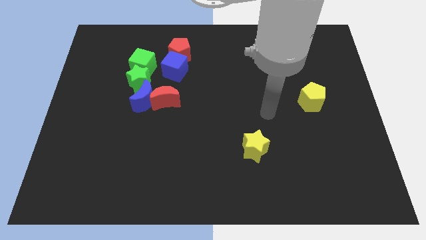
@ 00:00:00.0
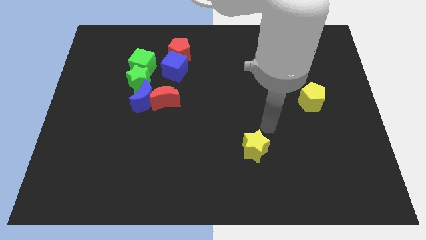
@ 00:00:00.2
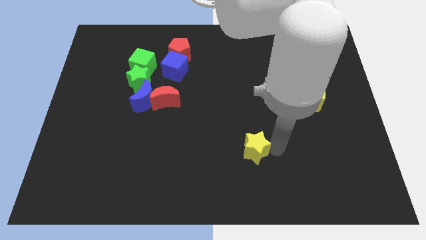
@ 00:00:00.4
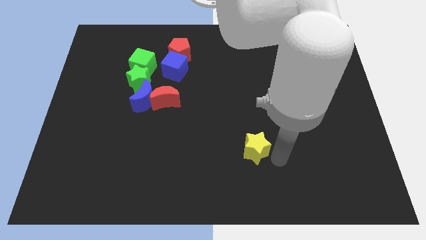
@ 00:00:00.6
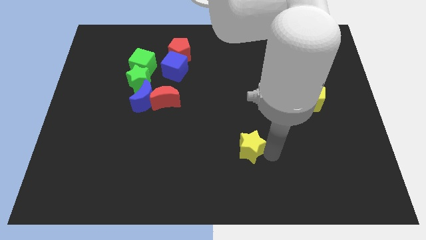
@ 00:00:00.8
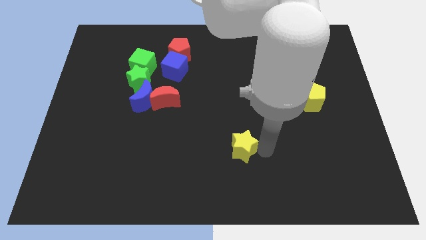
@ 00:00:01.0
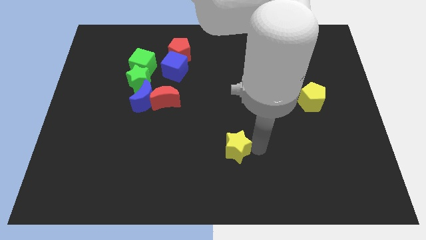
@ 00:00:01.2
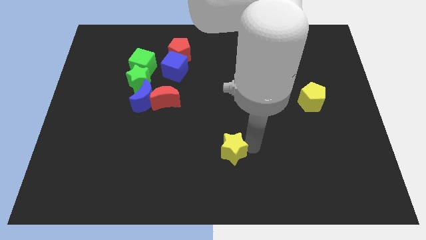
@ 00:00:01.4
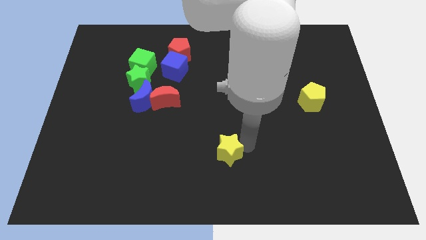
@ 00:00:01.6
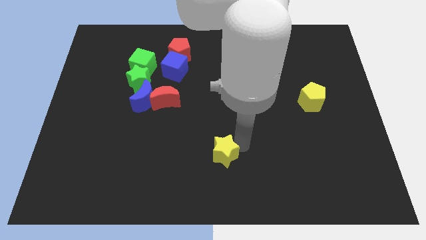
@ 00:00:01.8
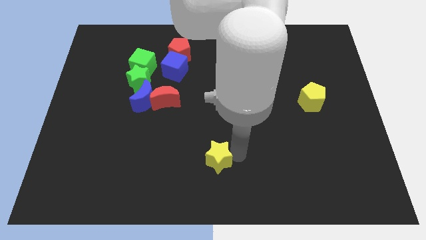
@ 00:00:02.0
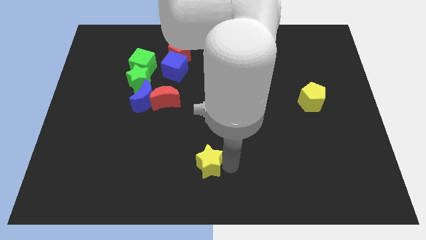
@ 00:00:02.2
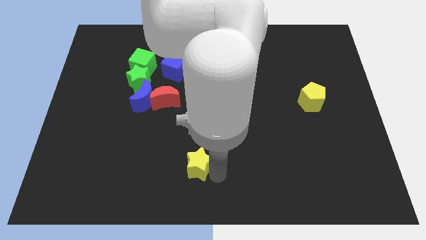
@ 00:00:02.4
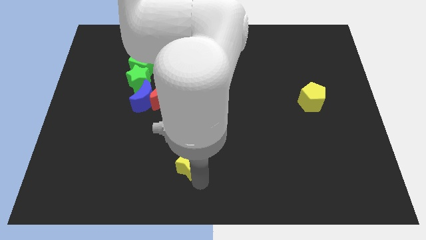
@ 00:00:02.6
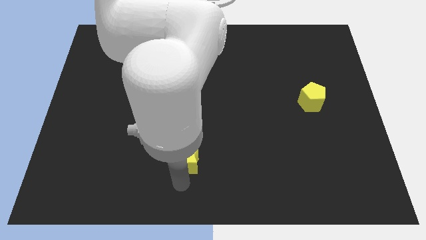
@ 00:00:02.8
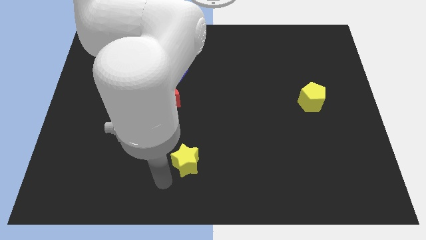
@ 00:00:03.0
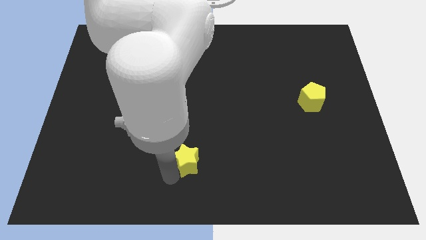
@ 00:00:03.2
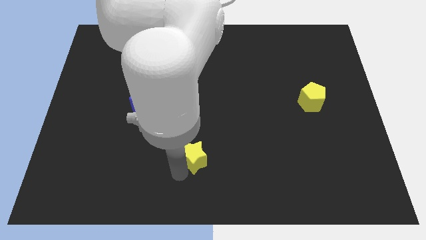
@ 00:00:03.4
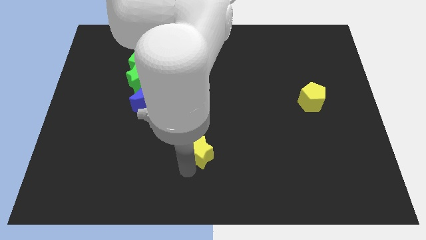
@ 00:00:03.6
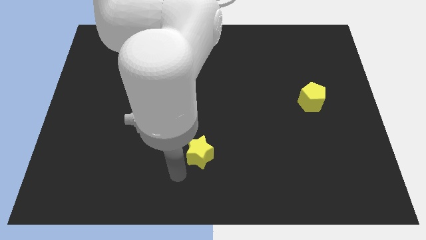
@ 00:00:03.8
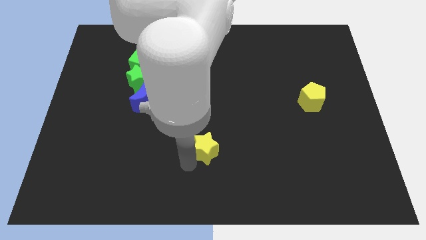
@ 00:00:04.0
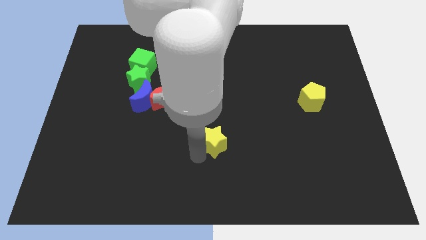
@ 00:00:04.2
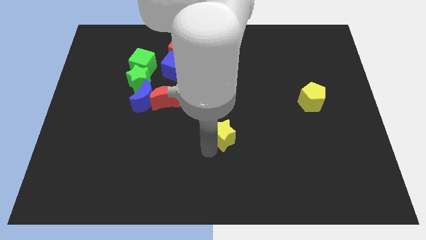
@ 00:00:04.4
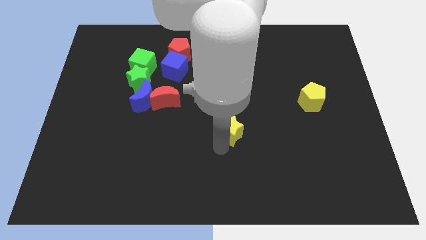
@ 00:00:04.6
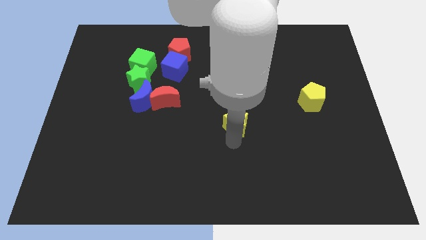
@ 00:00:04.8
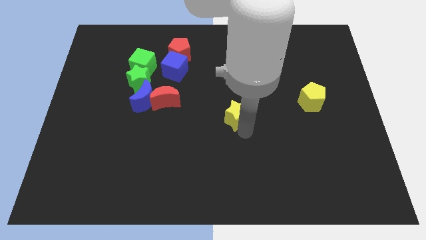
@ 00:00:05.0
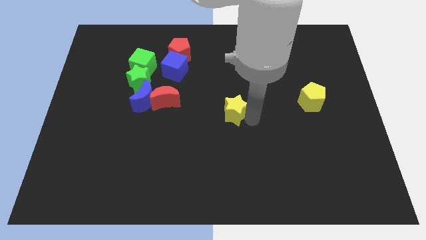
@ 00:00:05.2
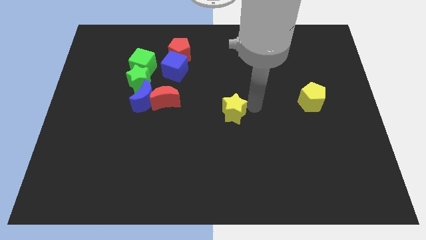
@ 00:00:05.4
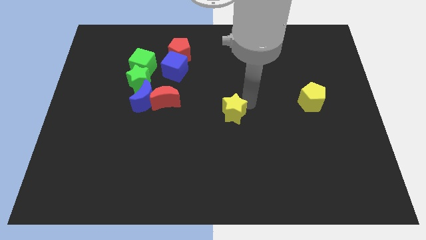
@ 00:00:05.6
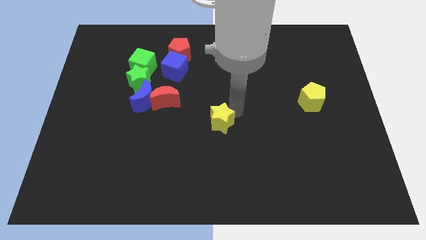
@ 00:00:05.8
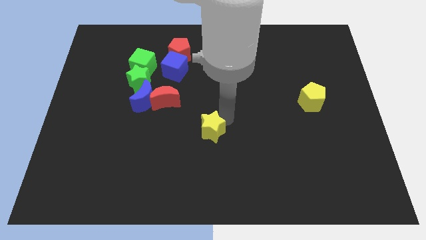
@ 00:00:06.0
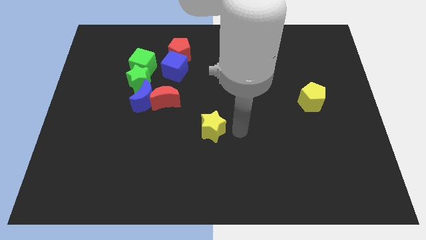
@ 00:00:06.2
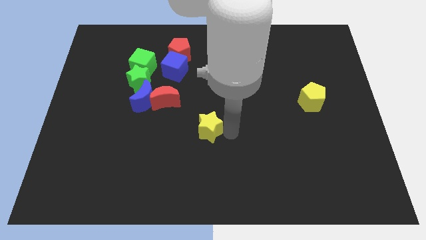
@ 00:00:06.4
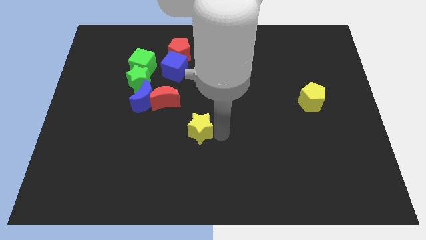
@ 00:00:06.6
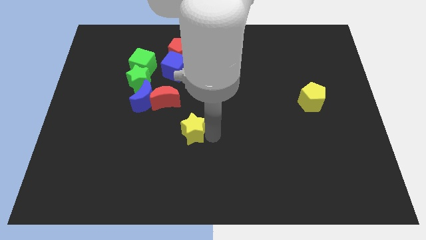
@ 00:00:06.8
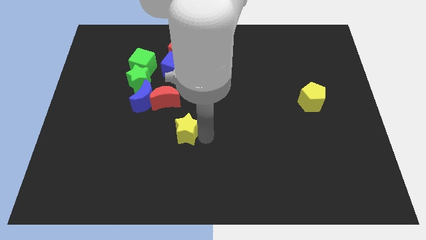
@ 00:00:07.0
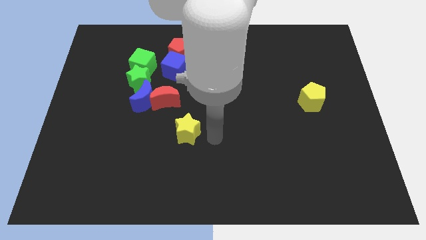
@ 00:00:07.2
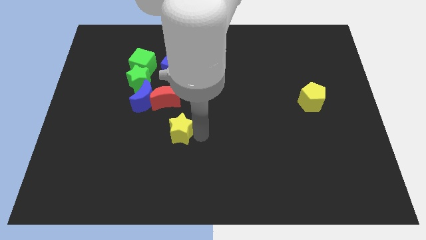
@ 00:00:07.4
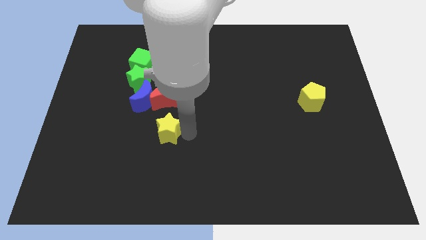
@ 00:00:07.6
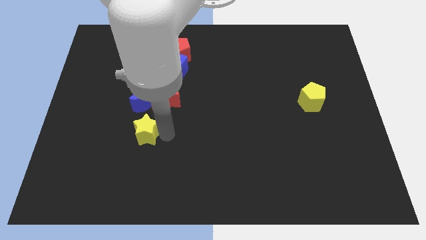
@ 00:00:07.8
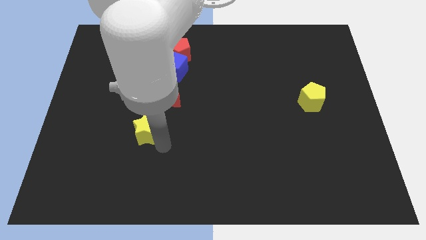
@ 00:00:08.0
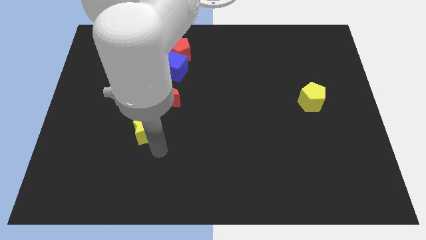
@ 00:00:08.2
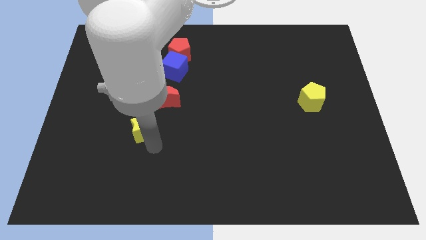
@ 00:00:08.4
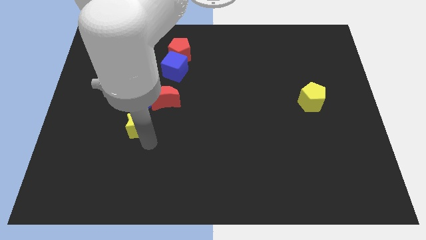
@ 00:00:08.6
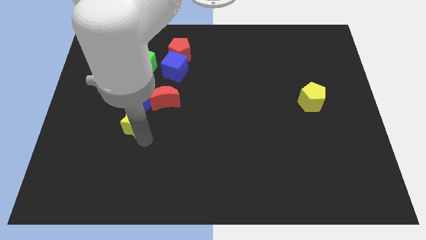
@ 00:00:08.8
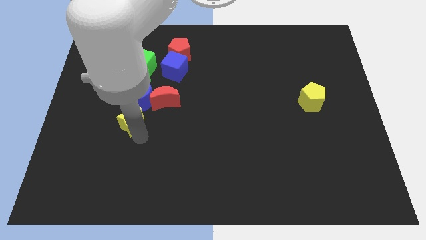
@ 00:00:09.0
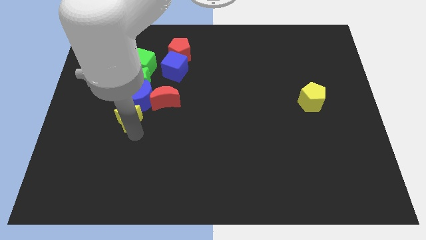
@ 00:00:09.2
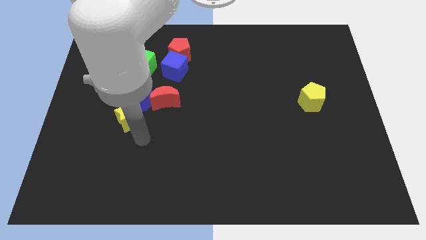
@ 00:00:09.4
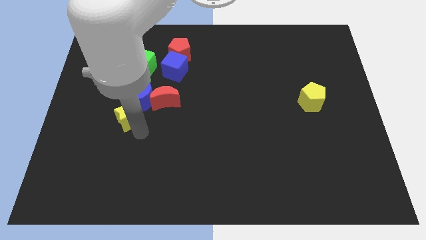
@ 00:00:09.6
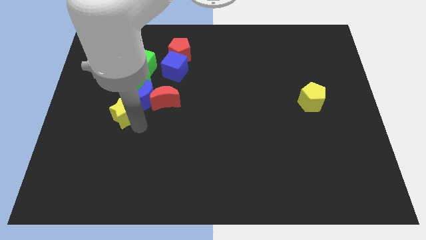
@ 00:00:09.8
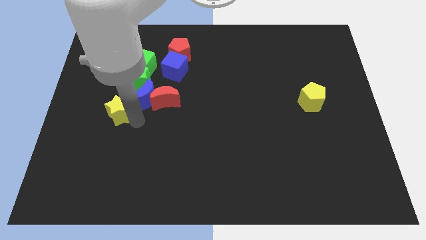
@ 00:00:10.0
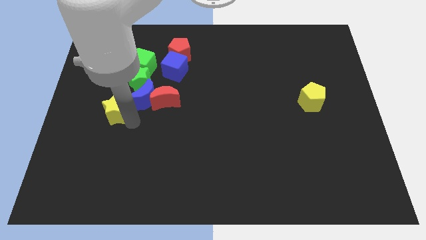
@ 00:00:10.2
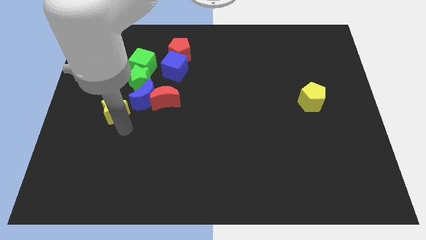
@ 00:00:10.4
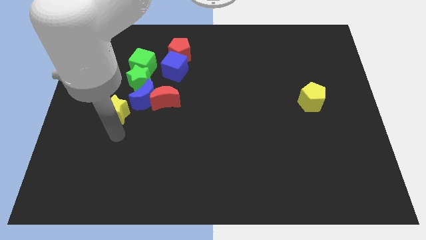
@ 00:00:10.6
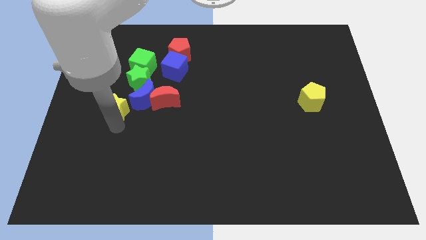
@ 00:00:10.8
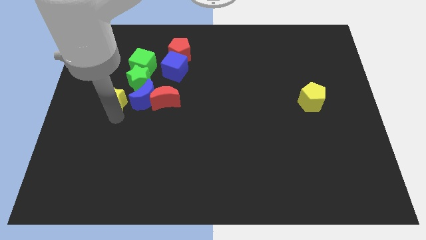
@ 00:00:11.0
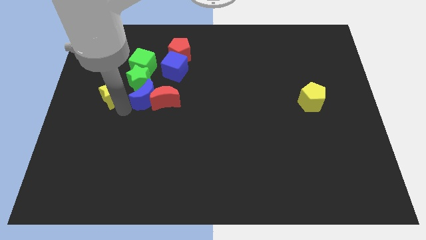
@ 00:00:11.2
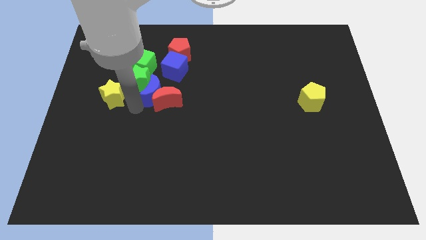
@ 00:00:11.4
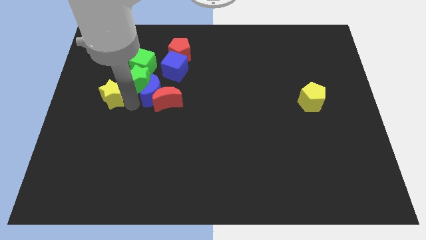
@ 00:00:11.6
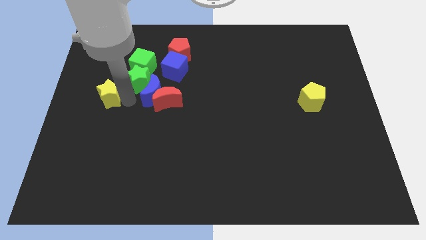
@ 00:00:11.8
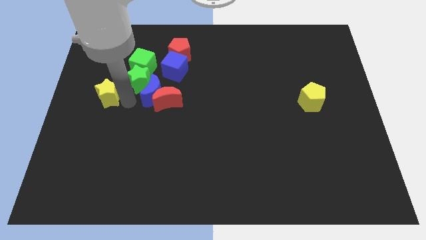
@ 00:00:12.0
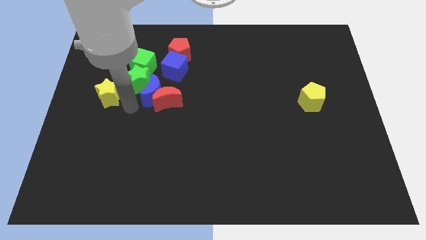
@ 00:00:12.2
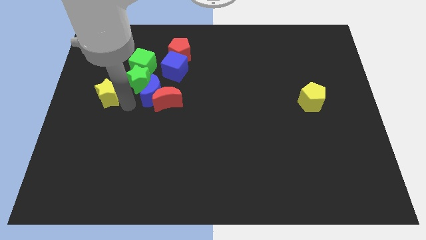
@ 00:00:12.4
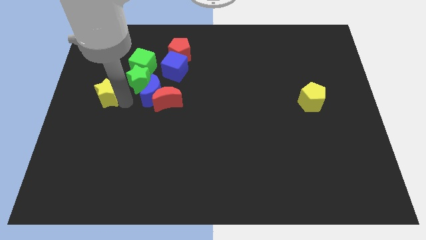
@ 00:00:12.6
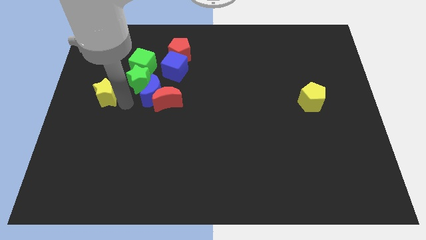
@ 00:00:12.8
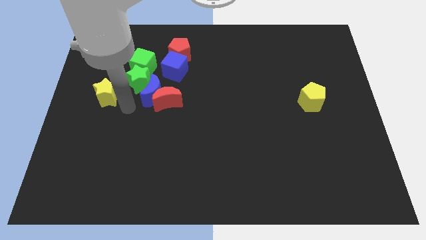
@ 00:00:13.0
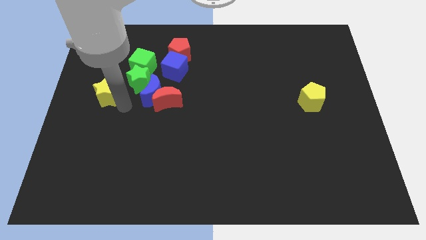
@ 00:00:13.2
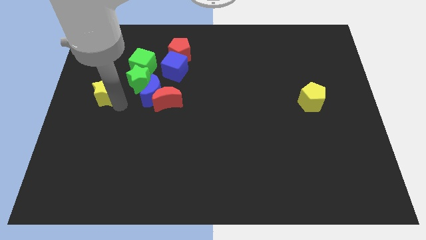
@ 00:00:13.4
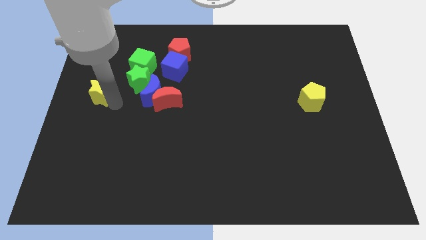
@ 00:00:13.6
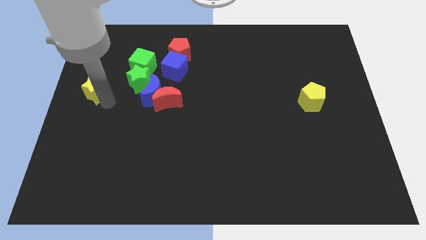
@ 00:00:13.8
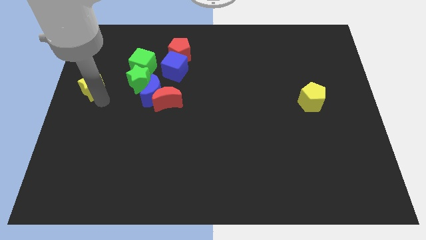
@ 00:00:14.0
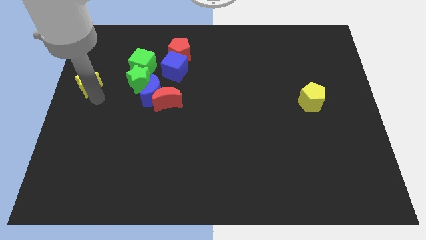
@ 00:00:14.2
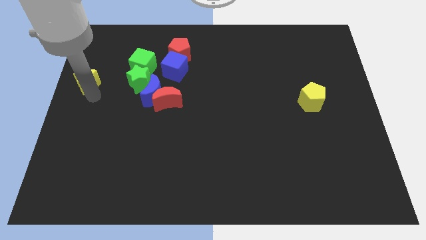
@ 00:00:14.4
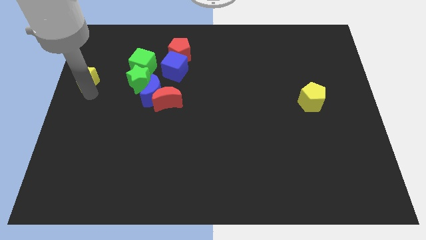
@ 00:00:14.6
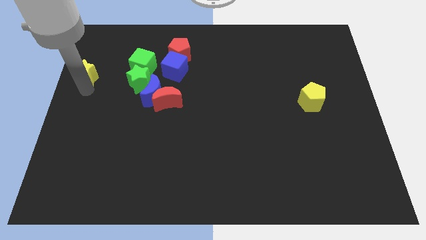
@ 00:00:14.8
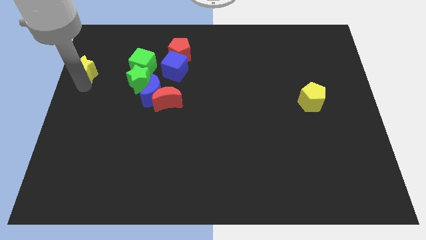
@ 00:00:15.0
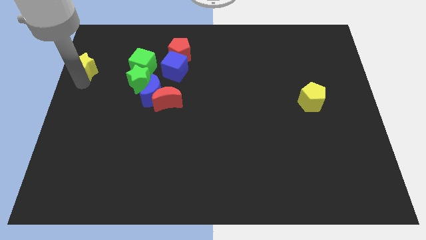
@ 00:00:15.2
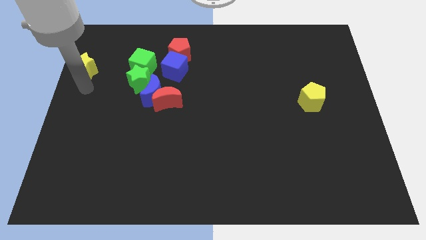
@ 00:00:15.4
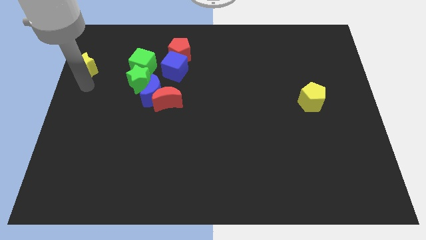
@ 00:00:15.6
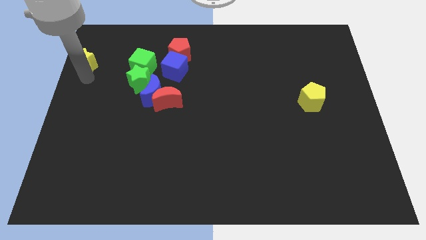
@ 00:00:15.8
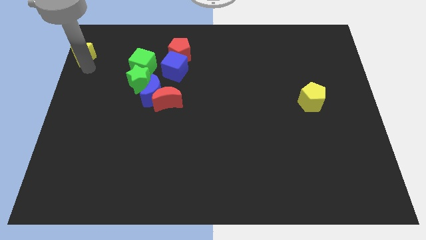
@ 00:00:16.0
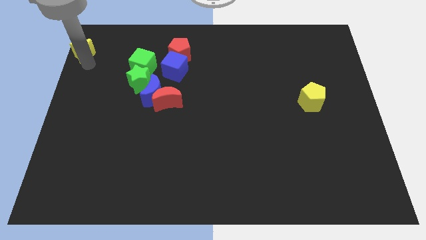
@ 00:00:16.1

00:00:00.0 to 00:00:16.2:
move the yellow star to the top left of the board
